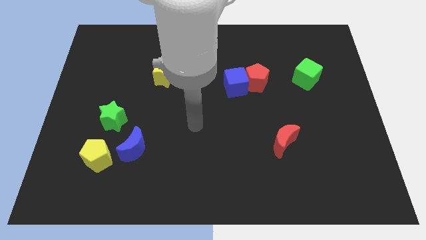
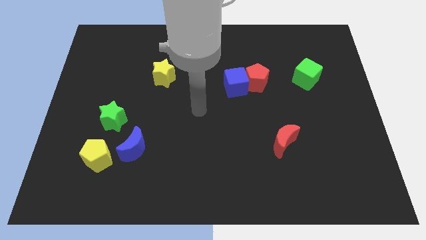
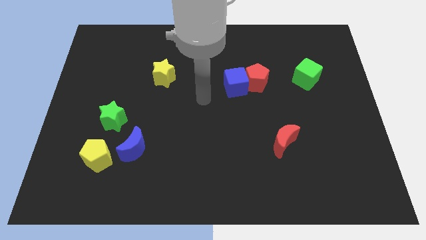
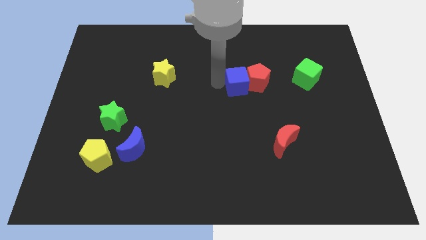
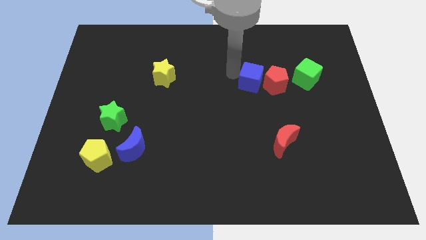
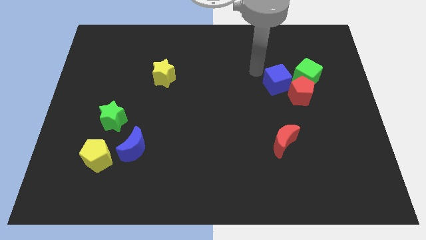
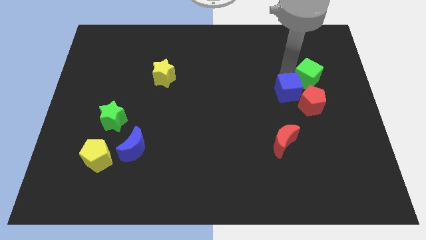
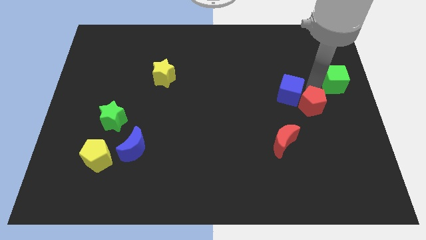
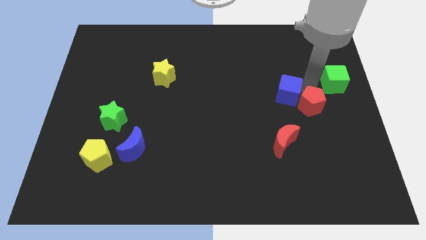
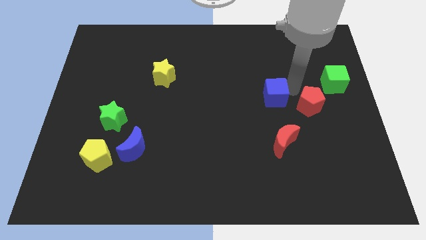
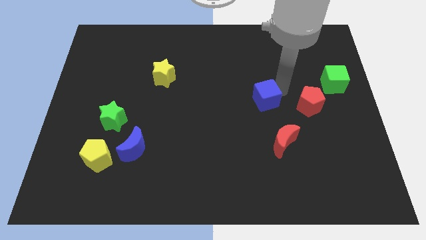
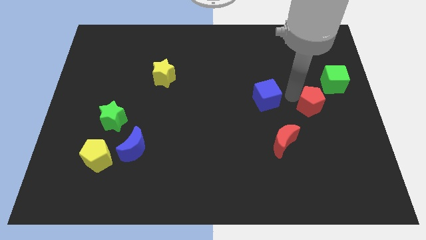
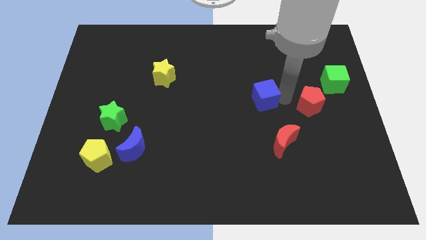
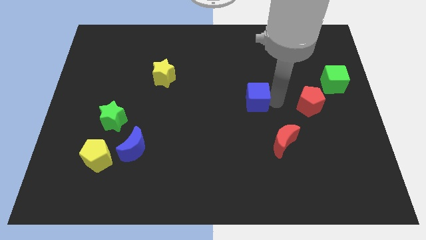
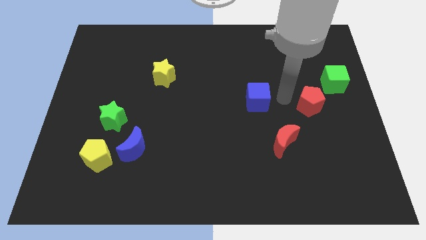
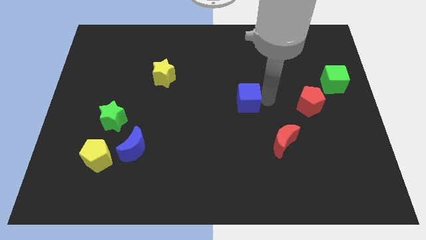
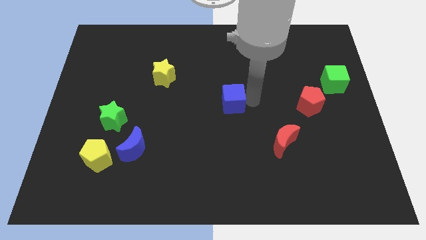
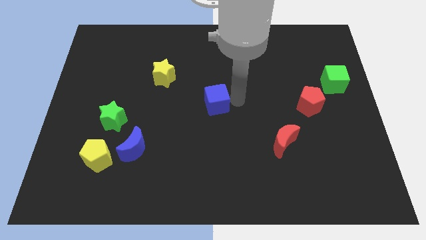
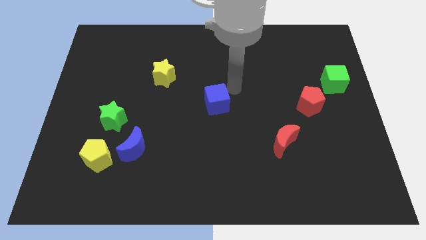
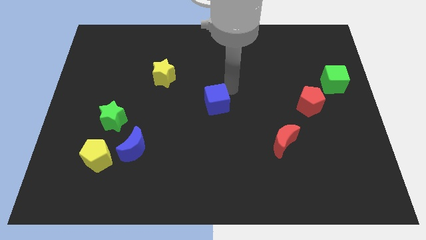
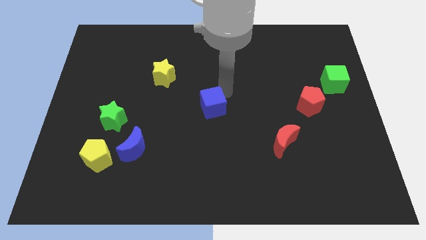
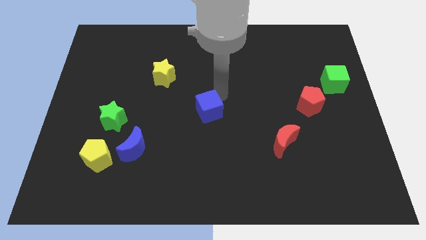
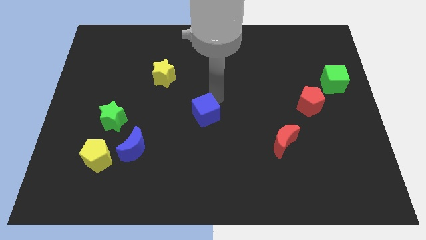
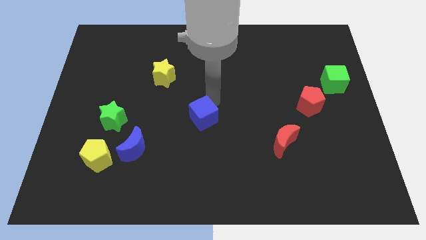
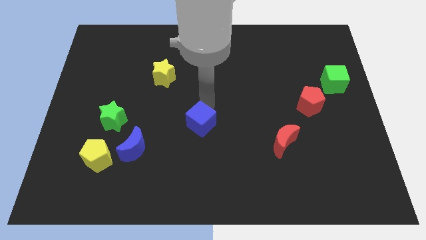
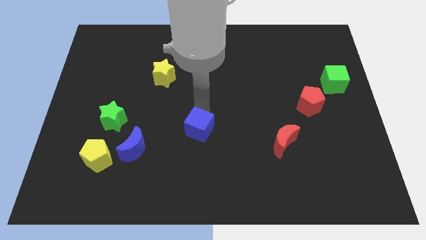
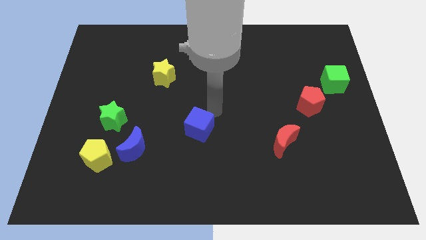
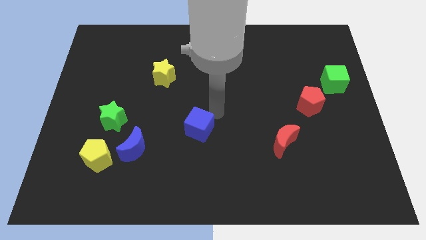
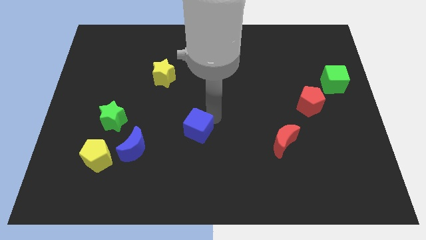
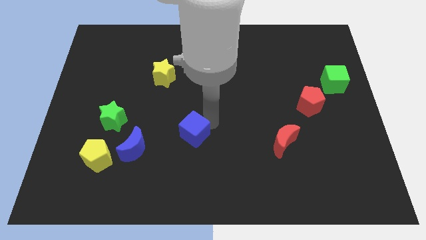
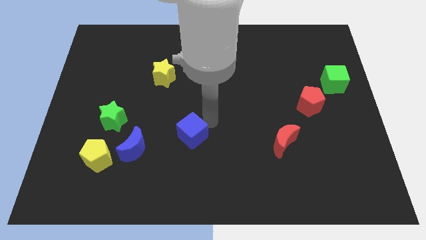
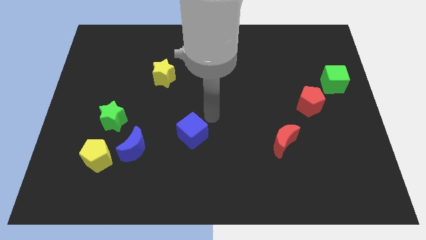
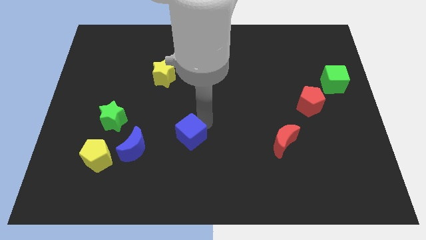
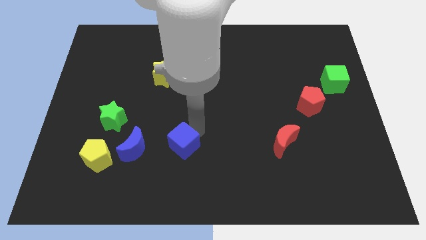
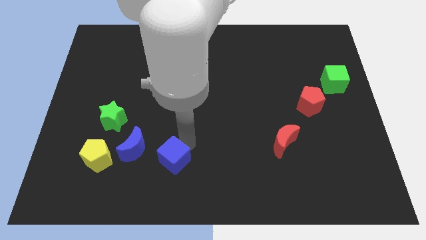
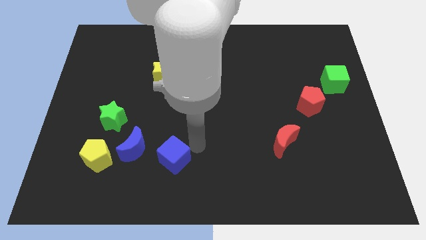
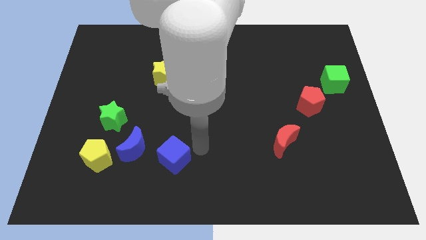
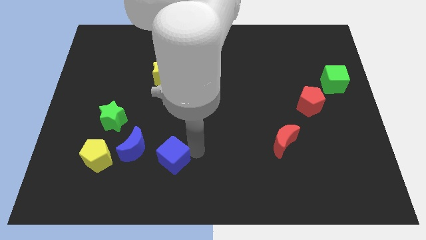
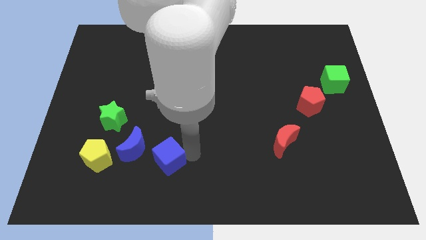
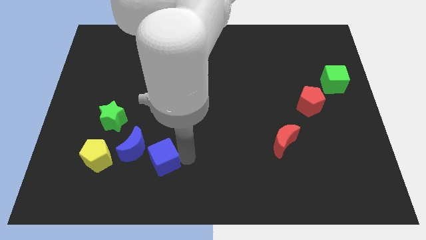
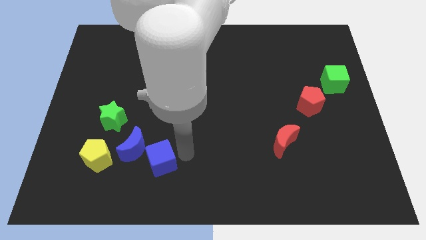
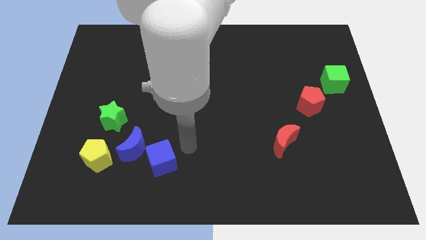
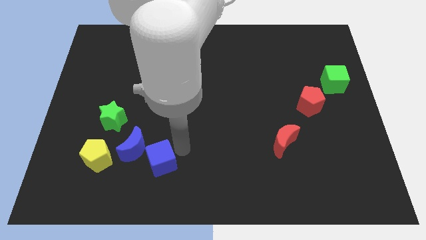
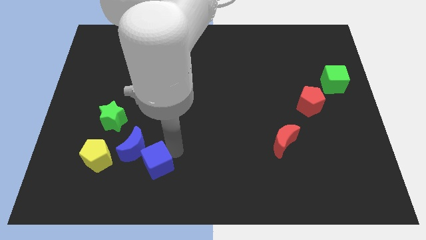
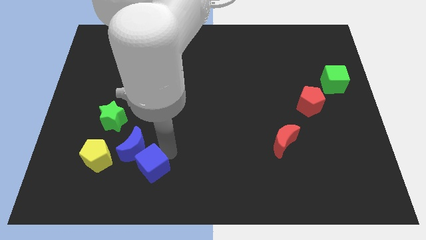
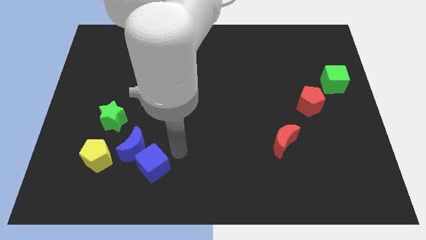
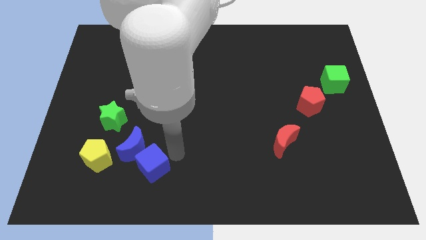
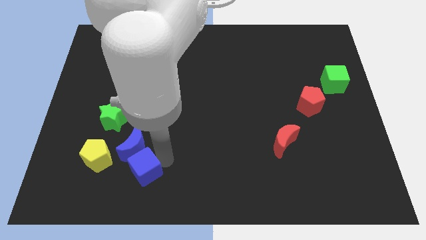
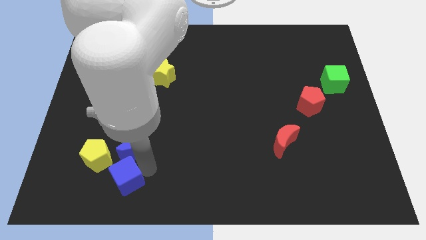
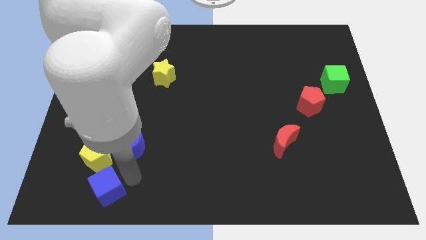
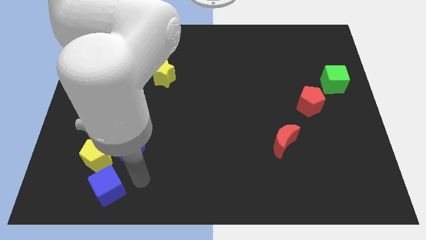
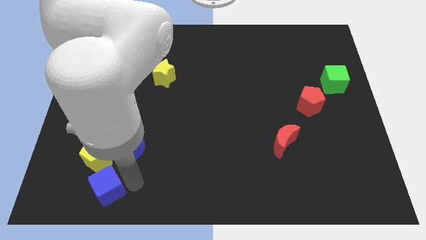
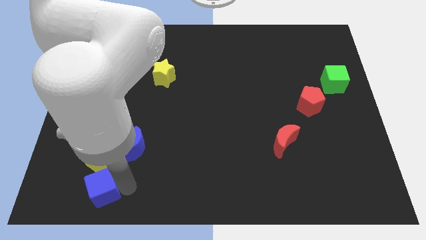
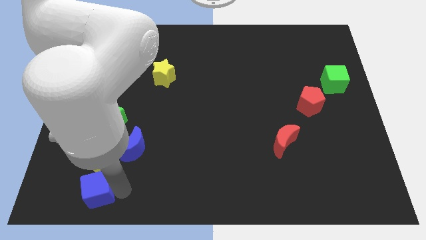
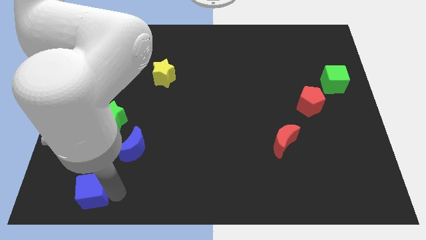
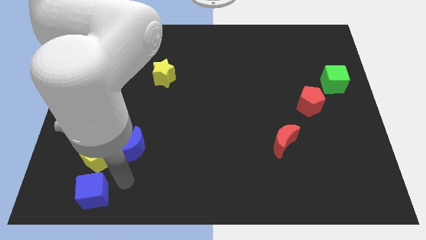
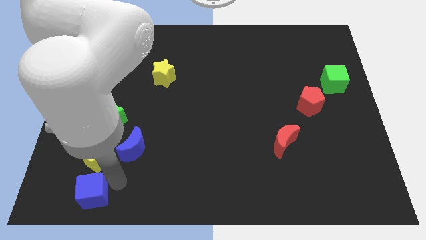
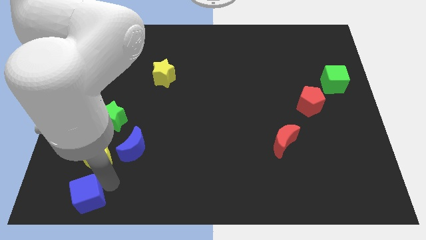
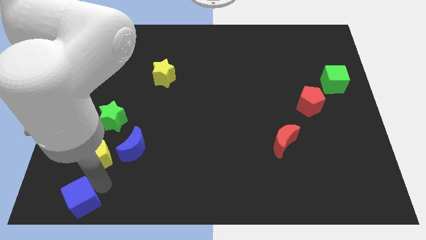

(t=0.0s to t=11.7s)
push the blue cube to the bottom left

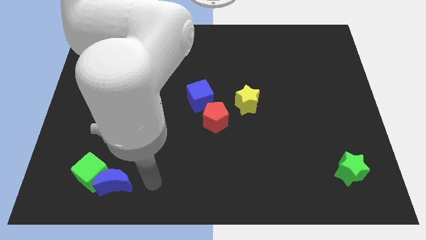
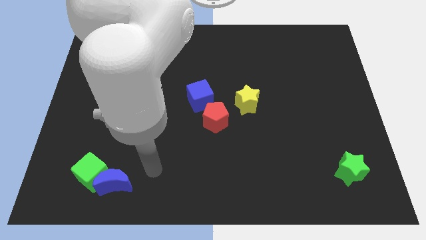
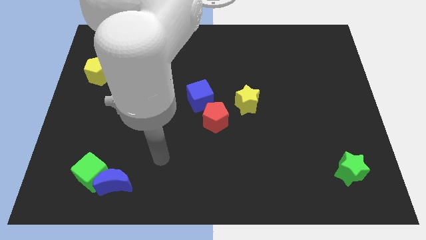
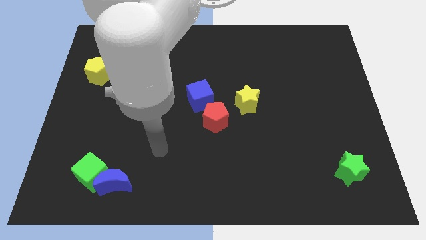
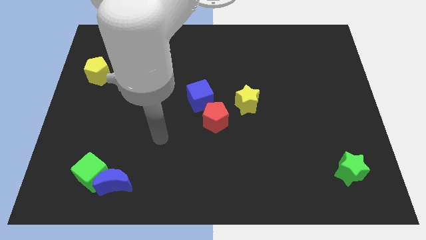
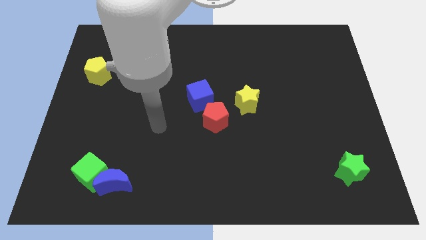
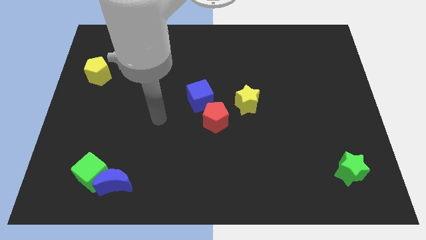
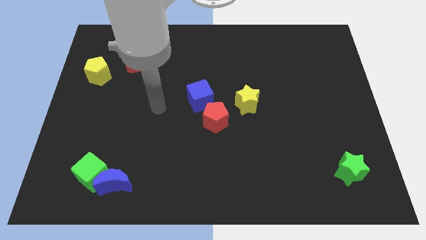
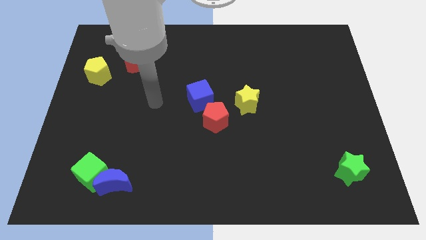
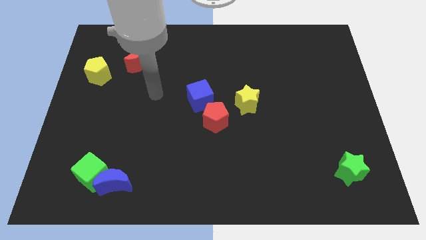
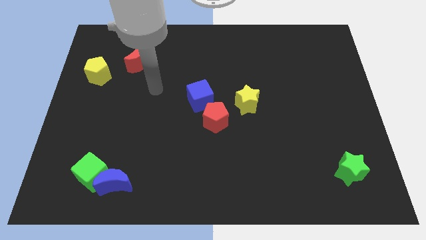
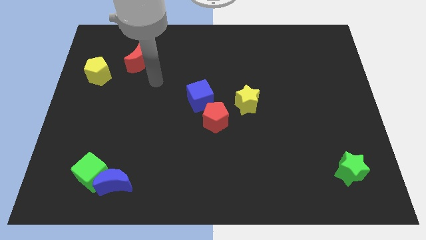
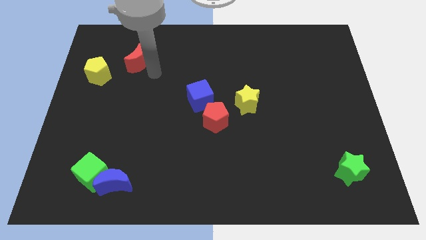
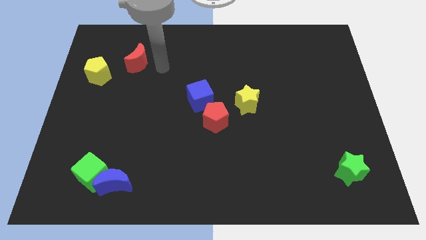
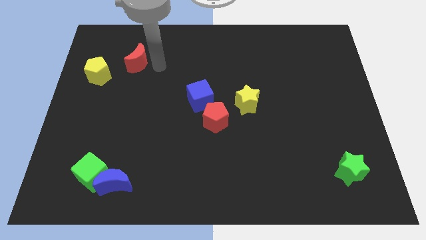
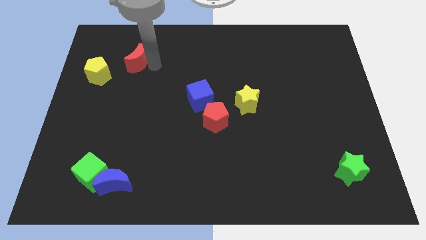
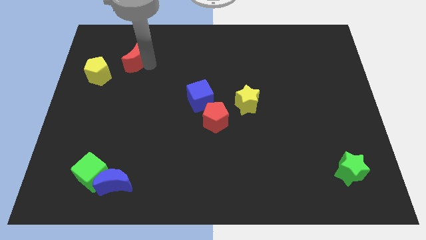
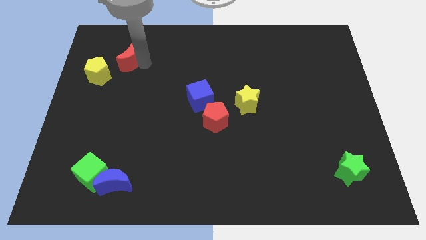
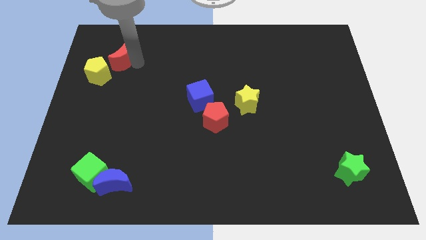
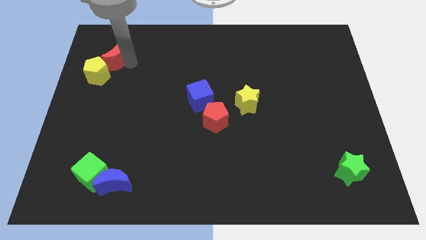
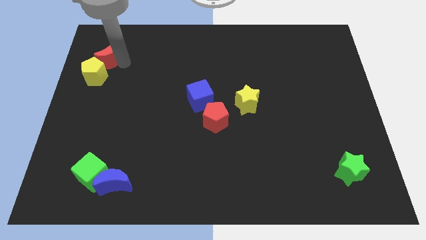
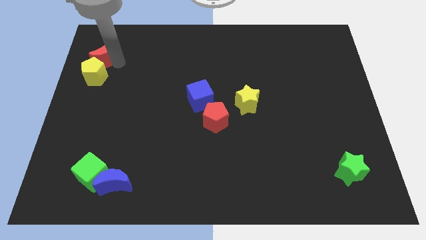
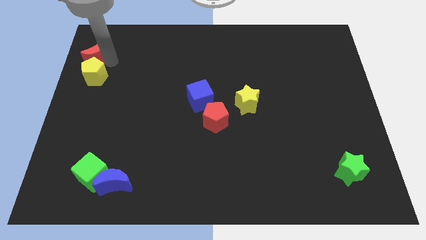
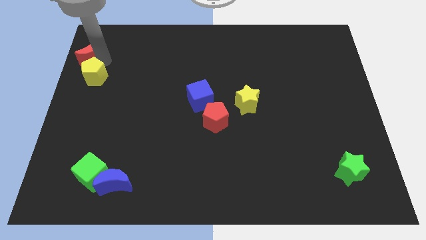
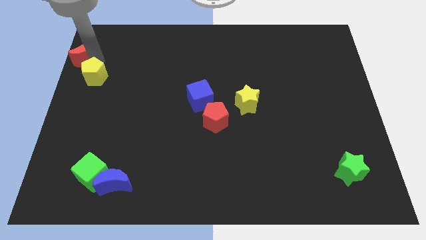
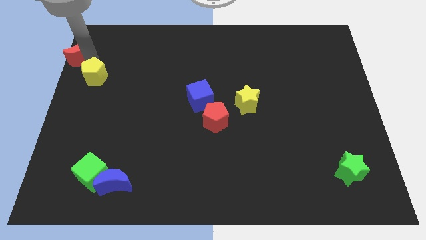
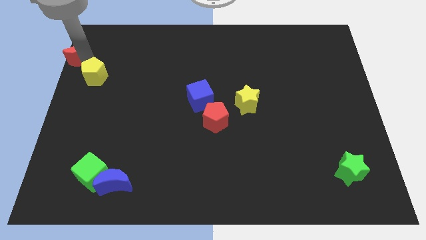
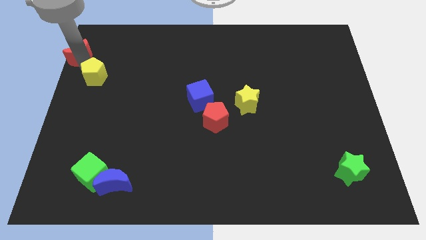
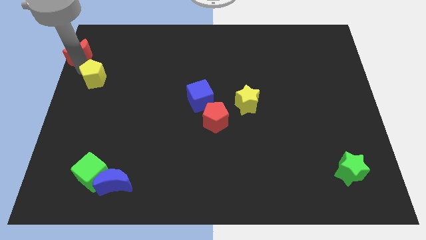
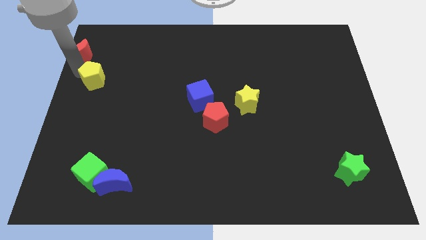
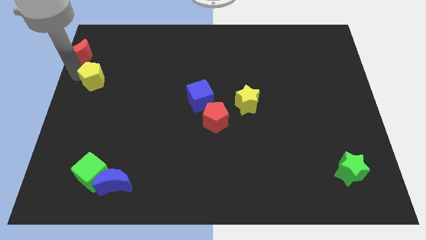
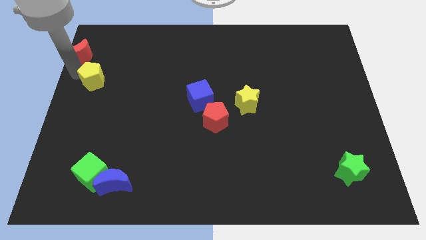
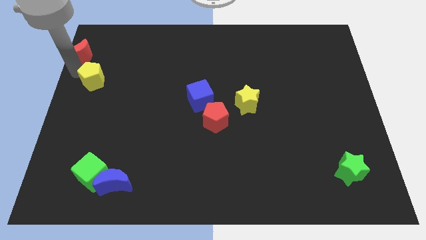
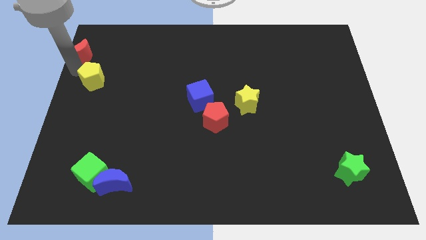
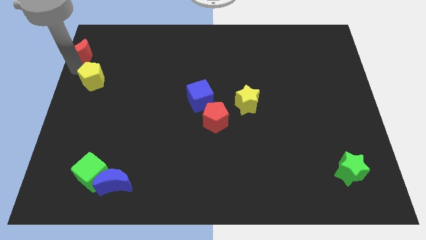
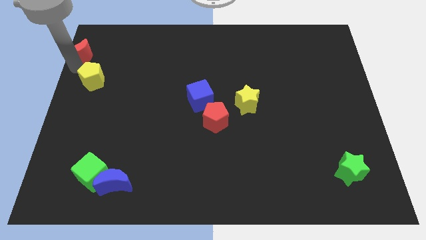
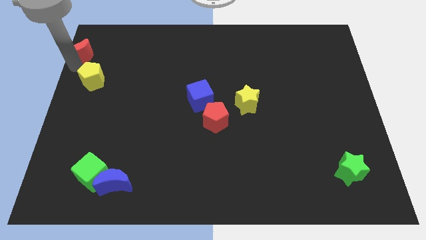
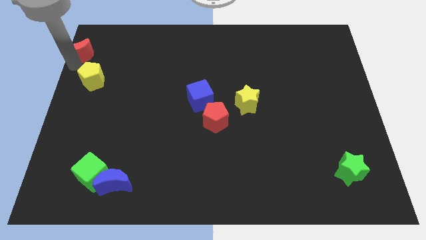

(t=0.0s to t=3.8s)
move the red moon to the top left corner
